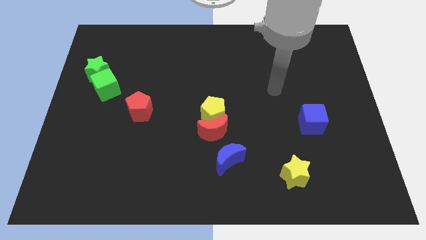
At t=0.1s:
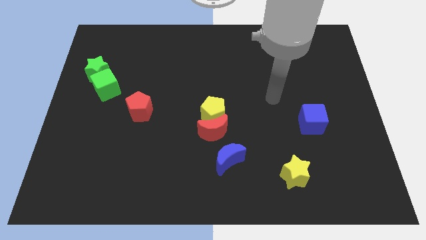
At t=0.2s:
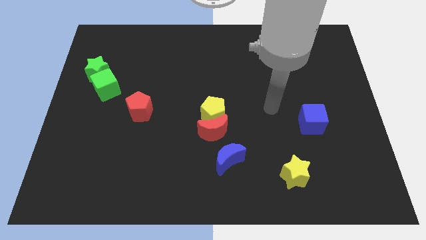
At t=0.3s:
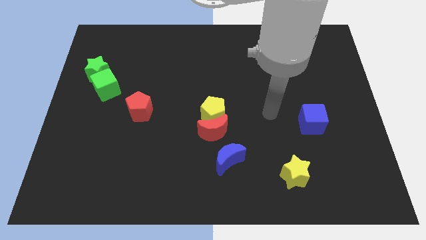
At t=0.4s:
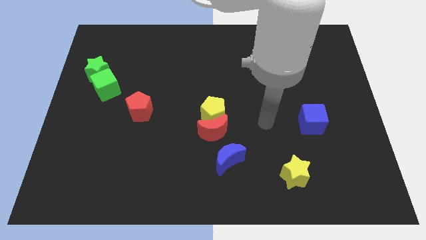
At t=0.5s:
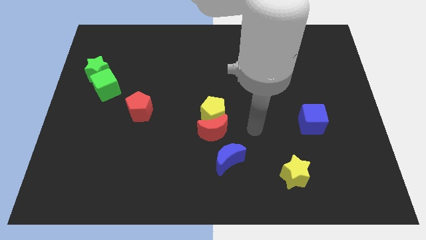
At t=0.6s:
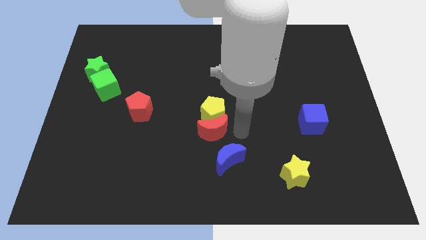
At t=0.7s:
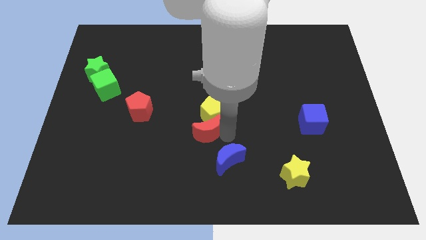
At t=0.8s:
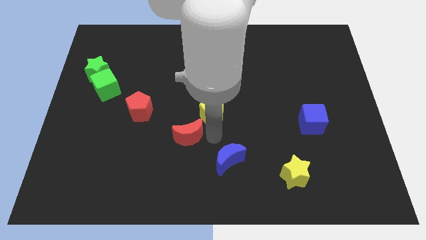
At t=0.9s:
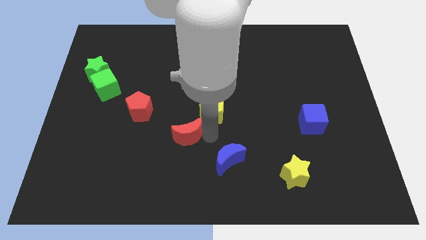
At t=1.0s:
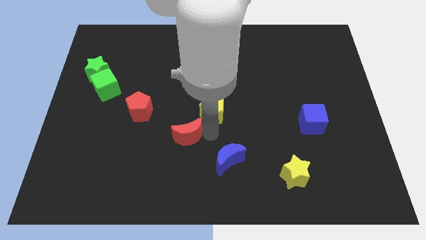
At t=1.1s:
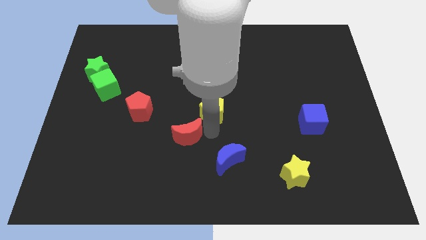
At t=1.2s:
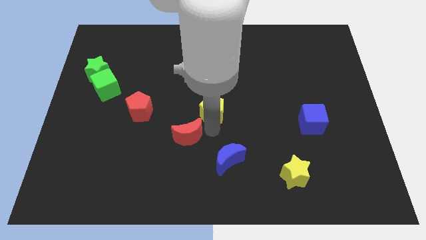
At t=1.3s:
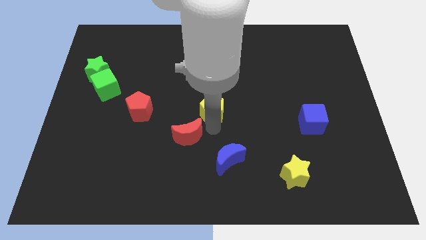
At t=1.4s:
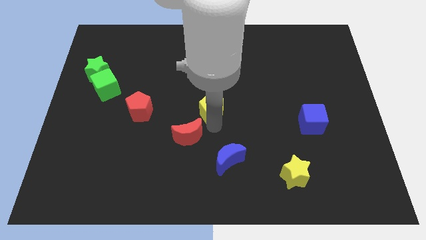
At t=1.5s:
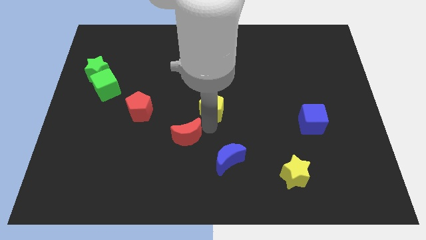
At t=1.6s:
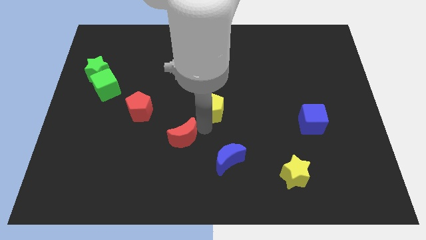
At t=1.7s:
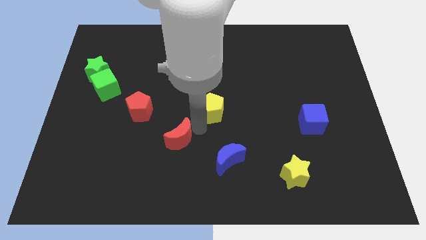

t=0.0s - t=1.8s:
pull the yellow pentagon apart from the red moon

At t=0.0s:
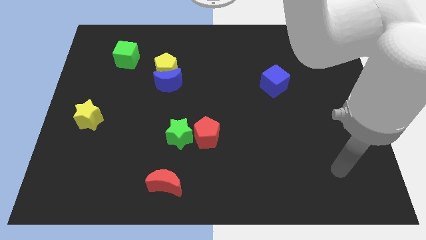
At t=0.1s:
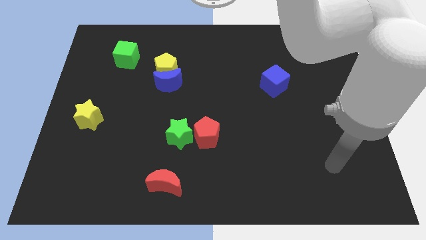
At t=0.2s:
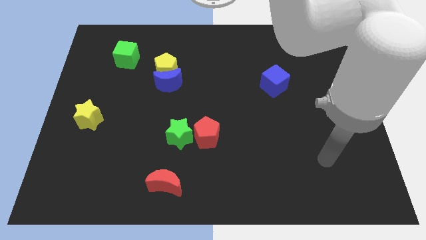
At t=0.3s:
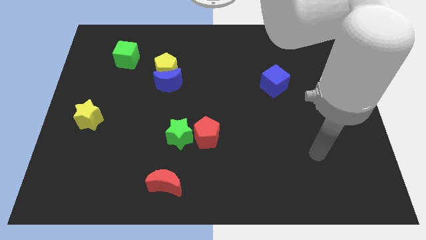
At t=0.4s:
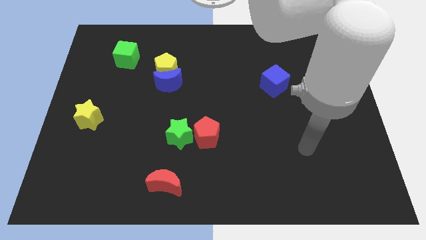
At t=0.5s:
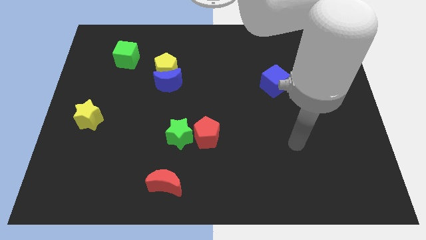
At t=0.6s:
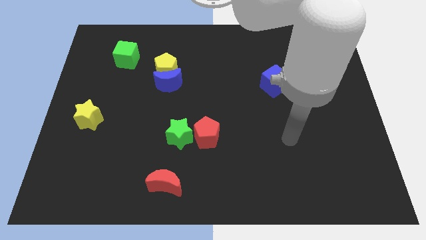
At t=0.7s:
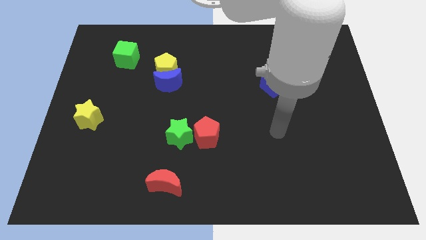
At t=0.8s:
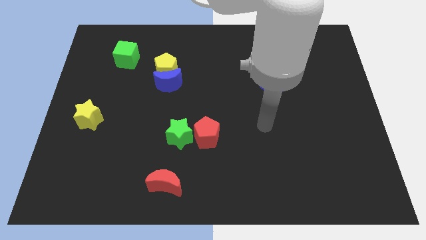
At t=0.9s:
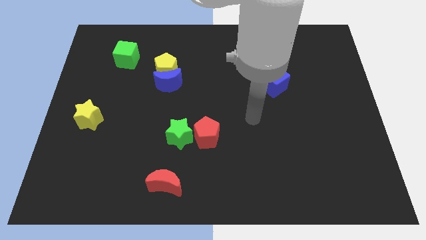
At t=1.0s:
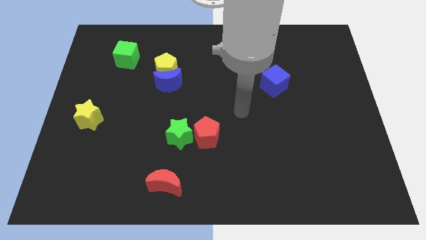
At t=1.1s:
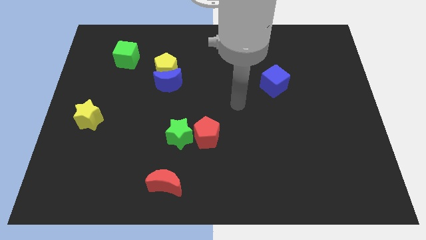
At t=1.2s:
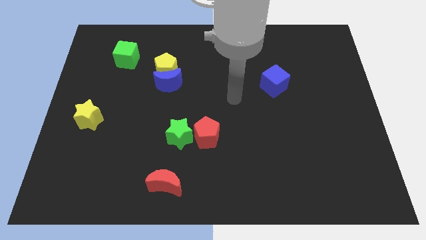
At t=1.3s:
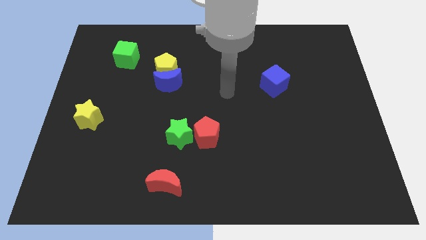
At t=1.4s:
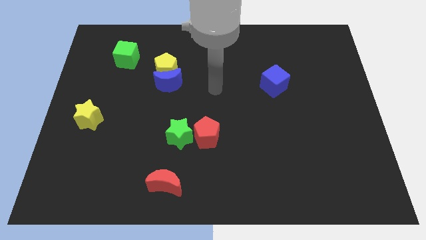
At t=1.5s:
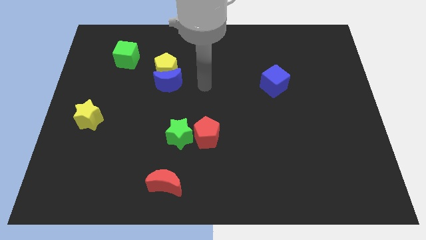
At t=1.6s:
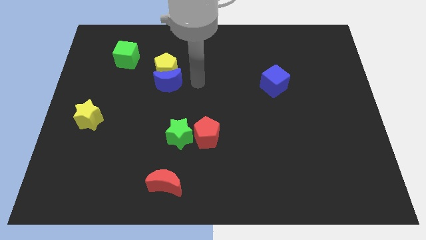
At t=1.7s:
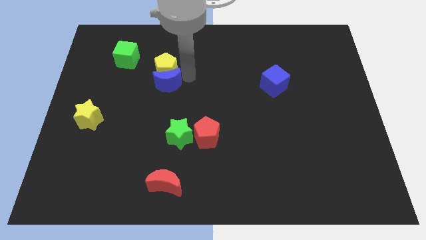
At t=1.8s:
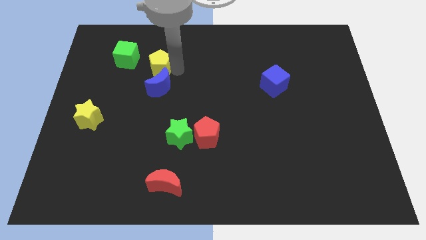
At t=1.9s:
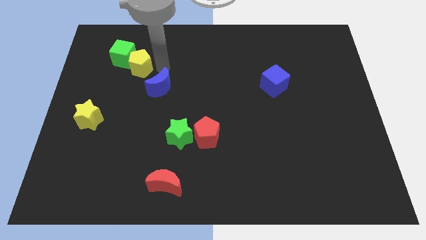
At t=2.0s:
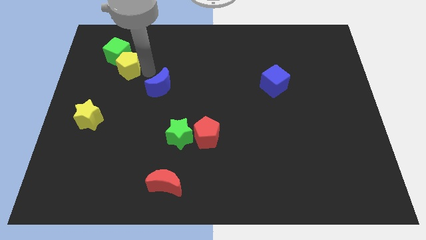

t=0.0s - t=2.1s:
separate the blue moon from the yellow pentagon

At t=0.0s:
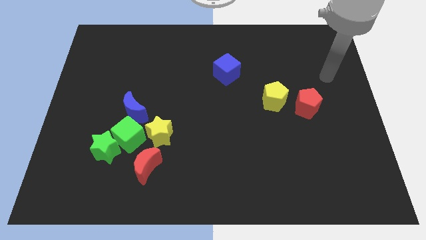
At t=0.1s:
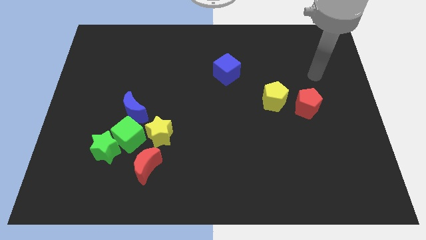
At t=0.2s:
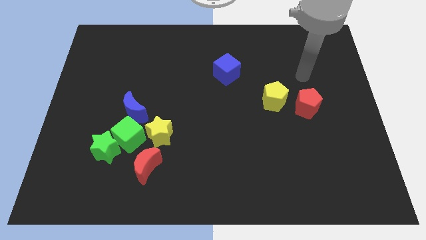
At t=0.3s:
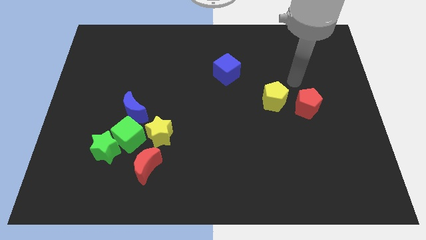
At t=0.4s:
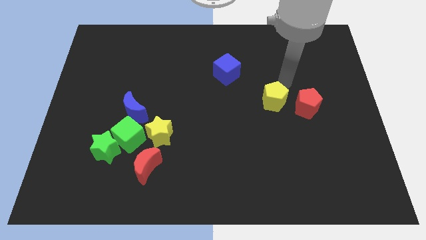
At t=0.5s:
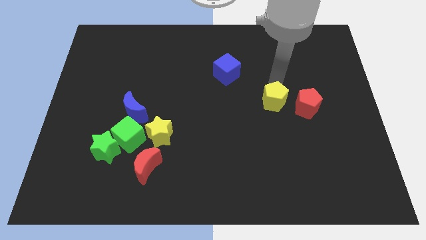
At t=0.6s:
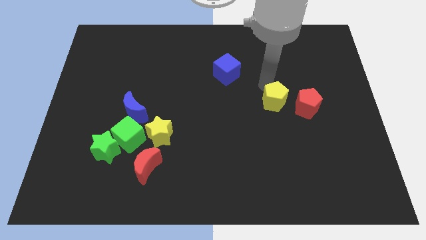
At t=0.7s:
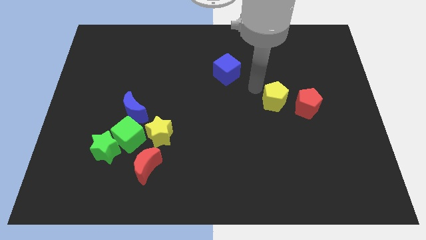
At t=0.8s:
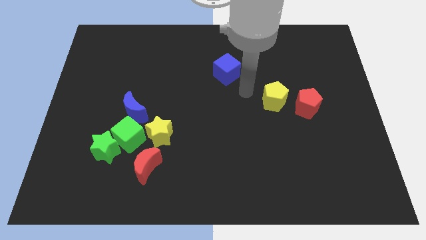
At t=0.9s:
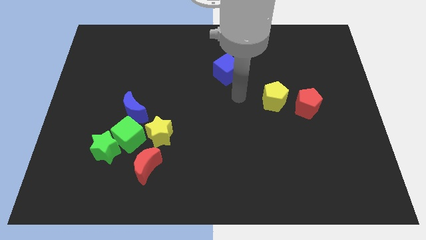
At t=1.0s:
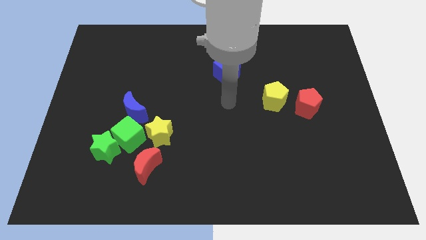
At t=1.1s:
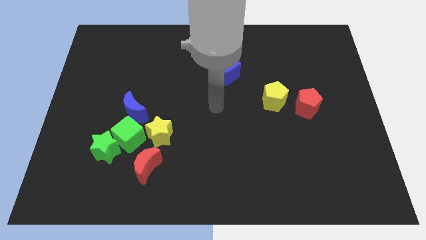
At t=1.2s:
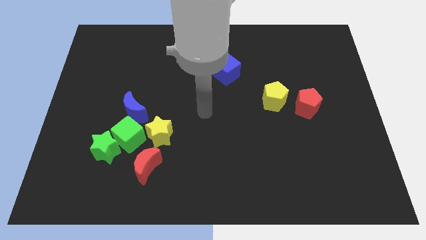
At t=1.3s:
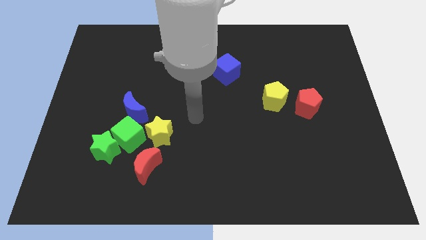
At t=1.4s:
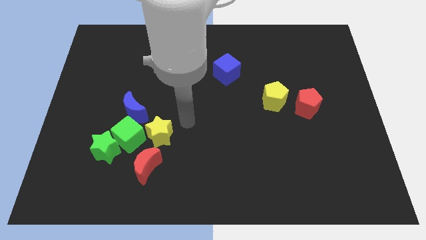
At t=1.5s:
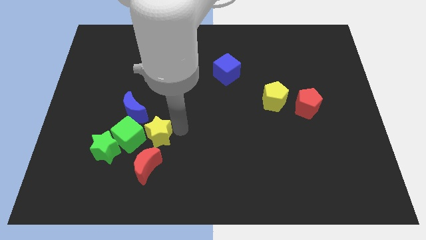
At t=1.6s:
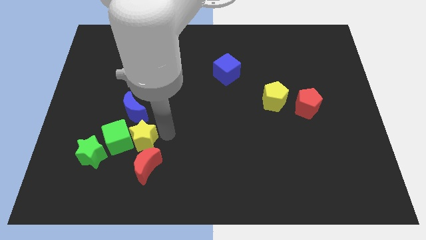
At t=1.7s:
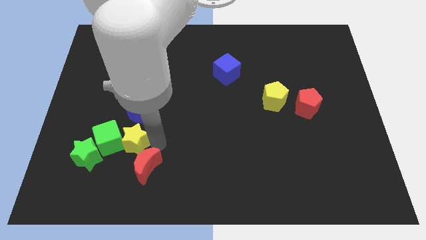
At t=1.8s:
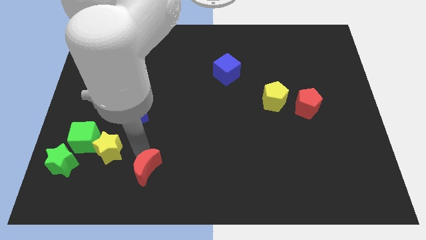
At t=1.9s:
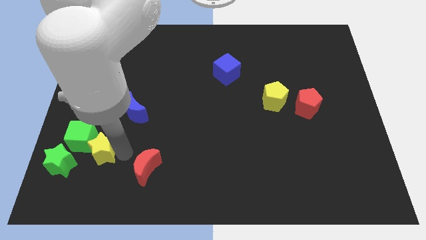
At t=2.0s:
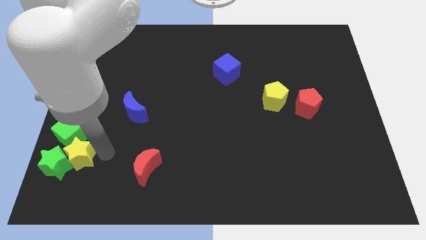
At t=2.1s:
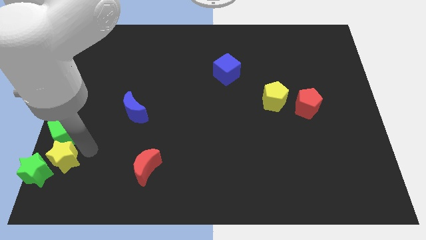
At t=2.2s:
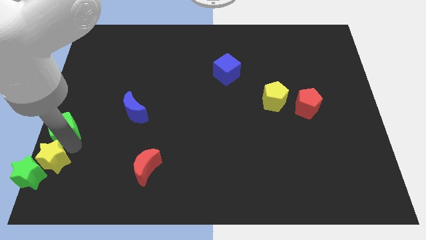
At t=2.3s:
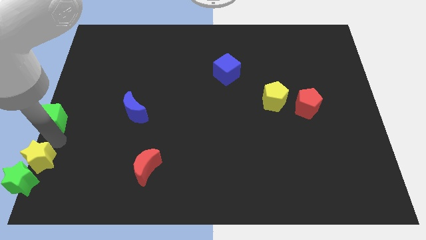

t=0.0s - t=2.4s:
separate the green cube from the group

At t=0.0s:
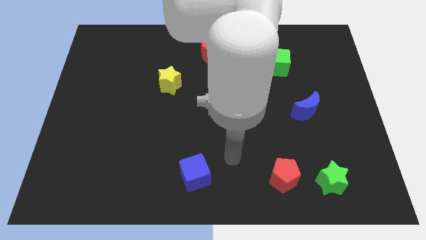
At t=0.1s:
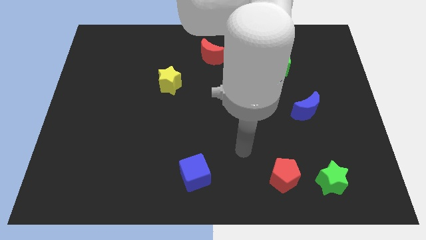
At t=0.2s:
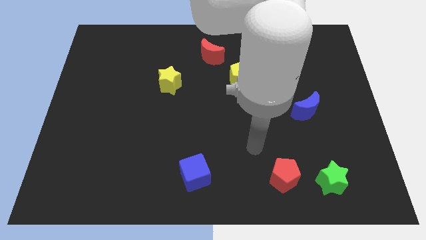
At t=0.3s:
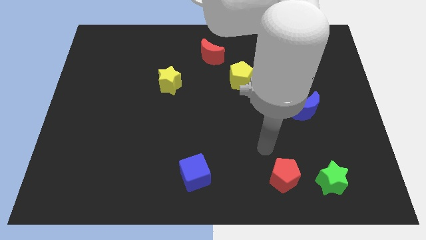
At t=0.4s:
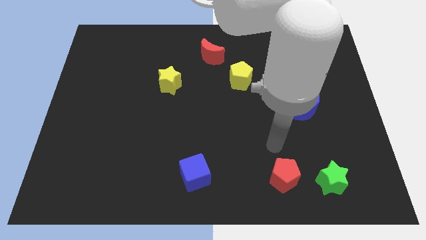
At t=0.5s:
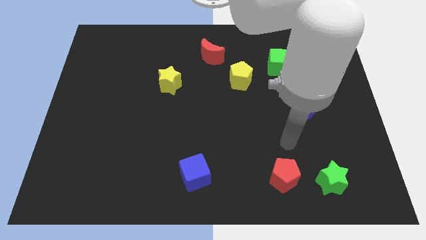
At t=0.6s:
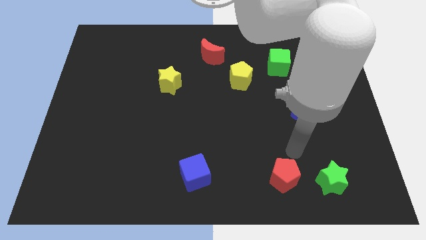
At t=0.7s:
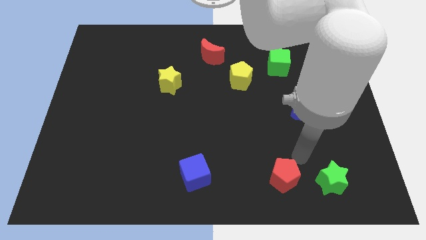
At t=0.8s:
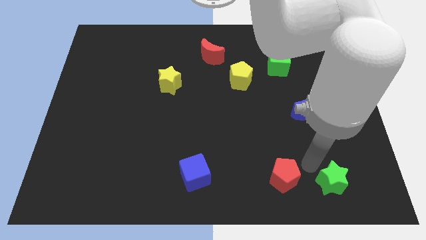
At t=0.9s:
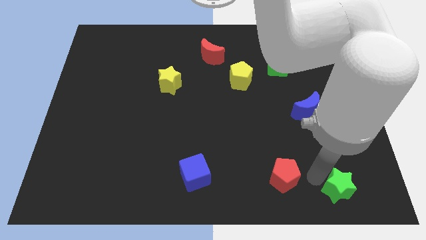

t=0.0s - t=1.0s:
pull the red pentagon apart from the green star

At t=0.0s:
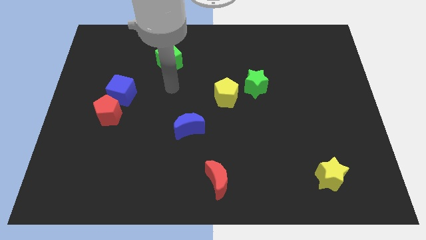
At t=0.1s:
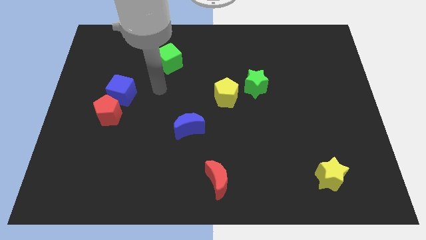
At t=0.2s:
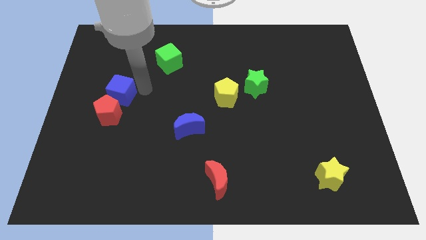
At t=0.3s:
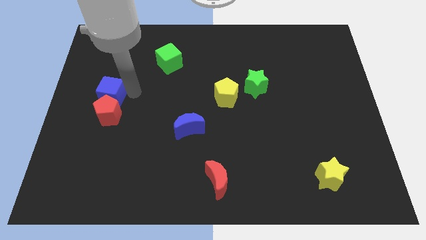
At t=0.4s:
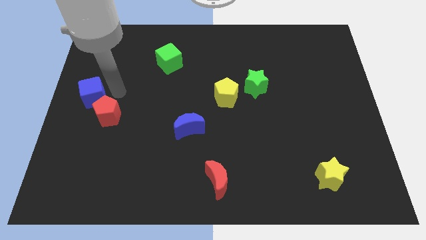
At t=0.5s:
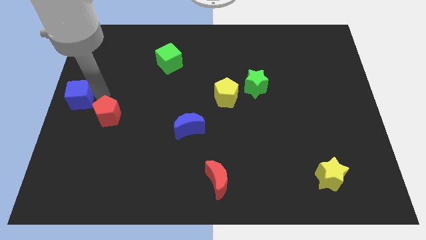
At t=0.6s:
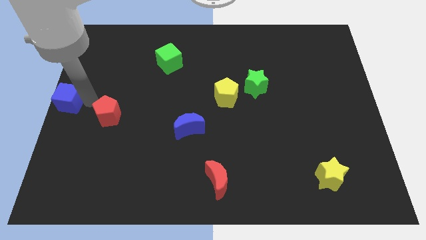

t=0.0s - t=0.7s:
pull the red pentagon apart from the blue cube

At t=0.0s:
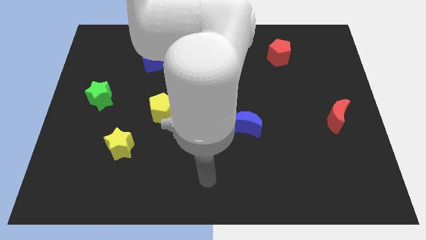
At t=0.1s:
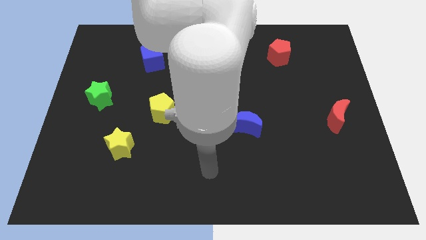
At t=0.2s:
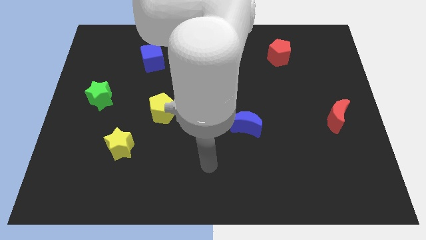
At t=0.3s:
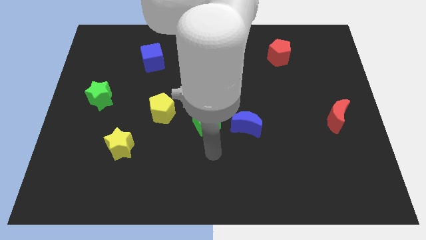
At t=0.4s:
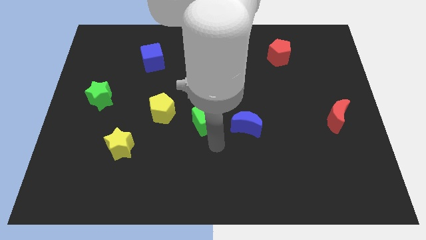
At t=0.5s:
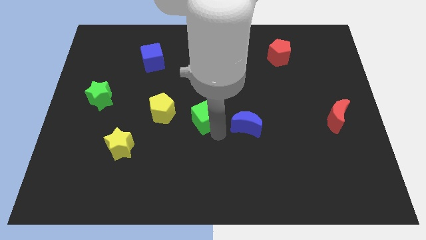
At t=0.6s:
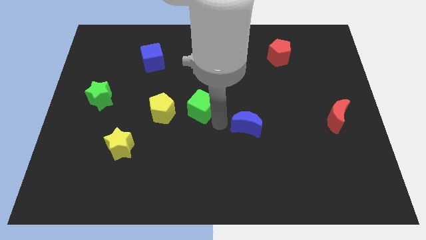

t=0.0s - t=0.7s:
move the blue moon away from the green cube

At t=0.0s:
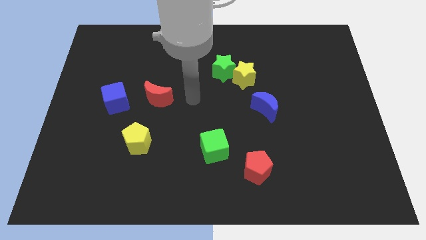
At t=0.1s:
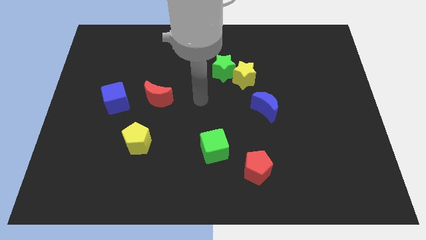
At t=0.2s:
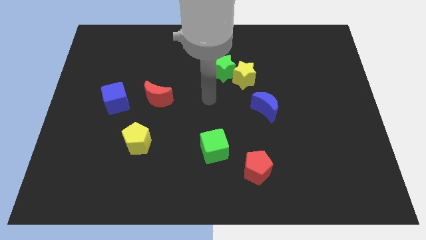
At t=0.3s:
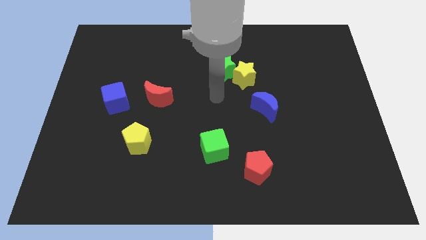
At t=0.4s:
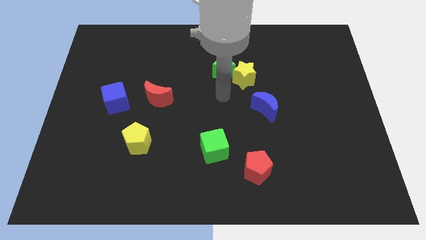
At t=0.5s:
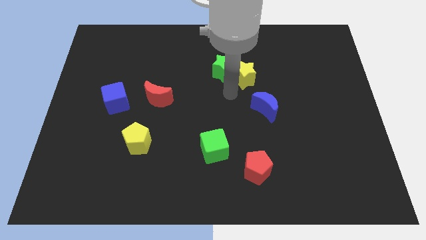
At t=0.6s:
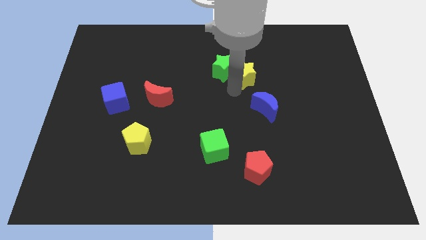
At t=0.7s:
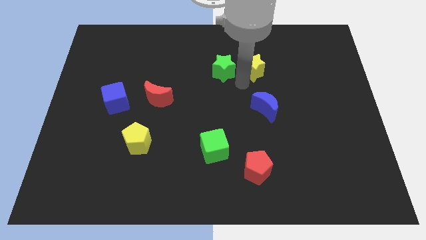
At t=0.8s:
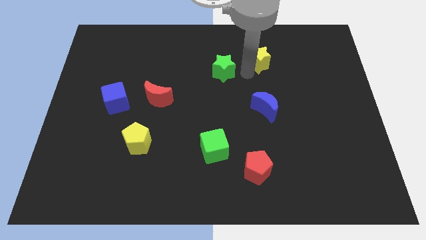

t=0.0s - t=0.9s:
separate the green star from the yellow star
